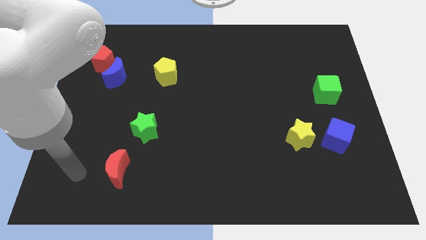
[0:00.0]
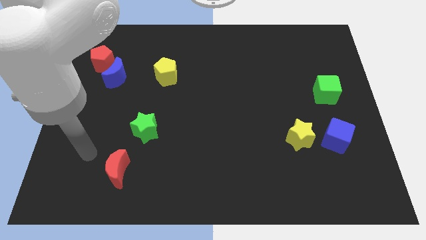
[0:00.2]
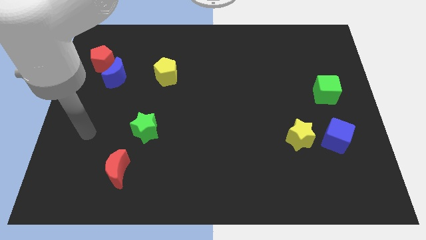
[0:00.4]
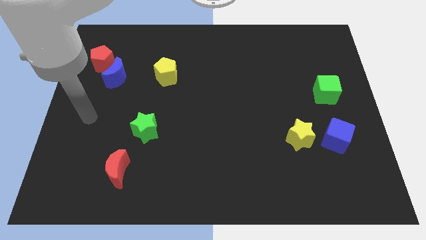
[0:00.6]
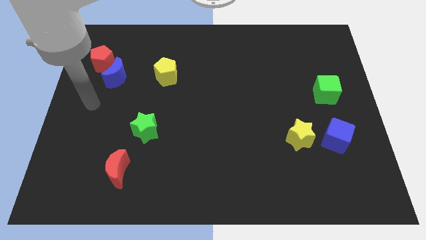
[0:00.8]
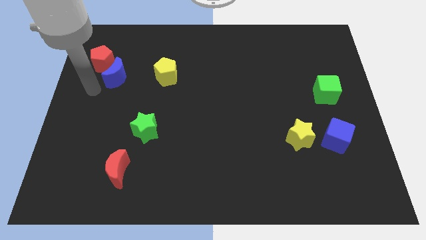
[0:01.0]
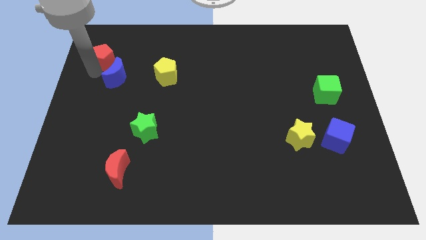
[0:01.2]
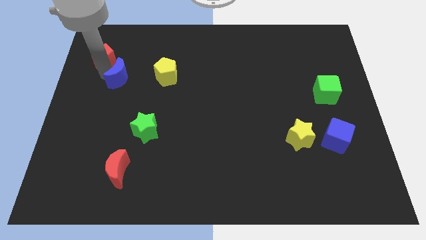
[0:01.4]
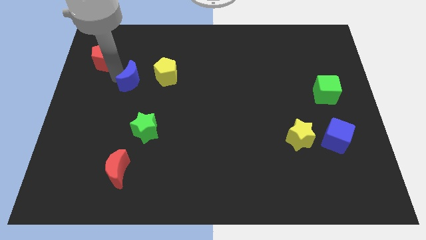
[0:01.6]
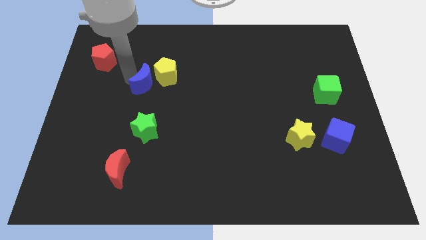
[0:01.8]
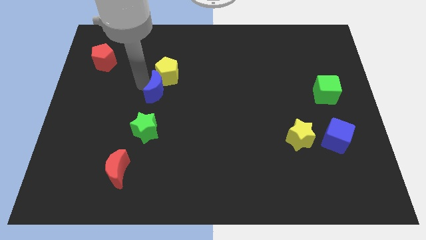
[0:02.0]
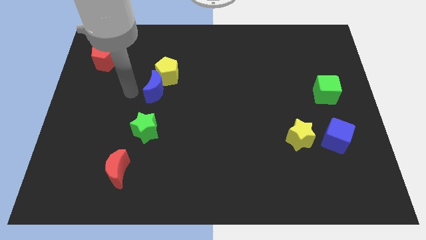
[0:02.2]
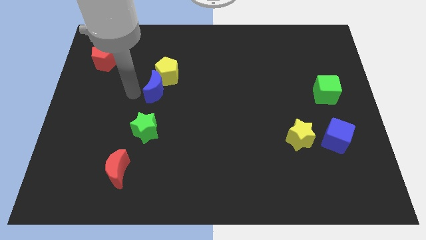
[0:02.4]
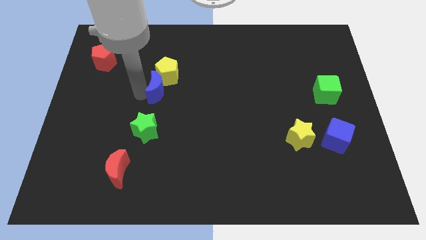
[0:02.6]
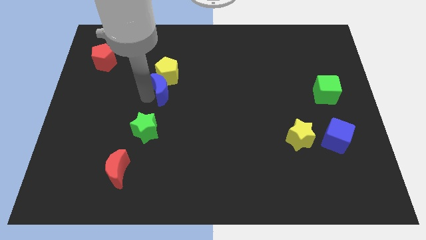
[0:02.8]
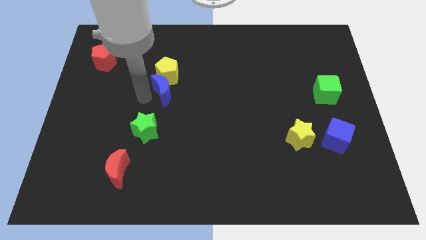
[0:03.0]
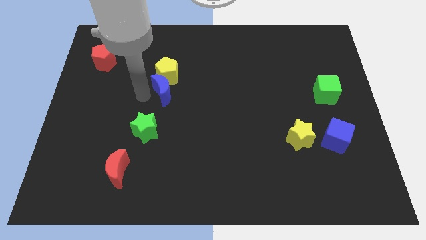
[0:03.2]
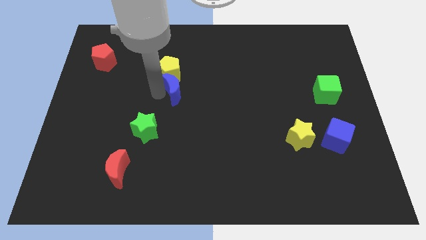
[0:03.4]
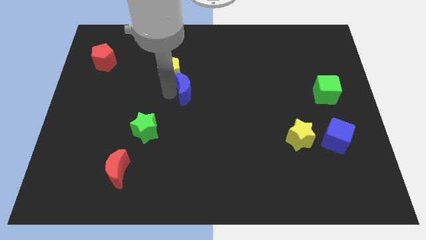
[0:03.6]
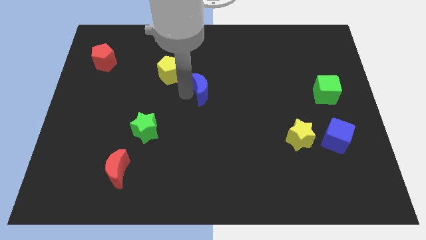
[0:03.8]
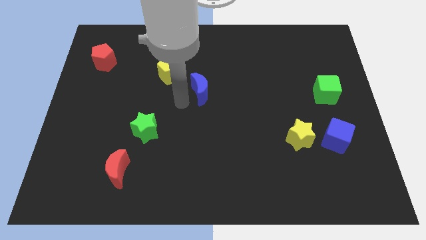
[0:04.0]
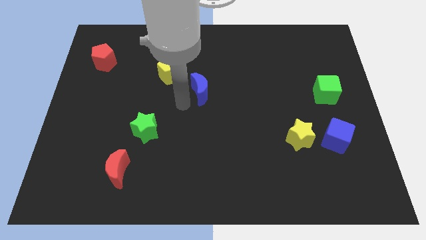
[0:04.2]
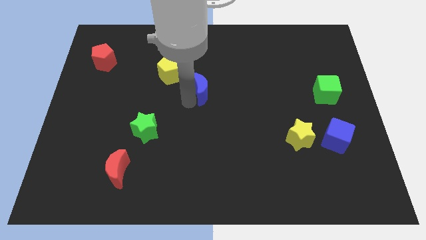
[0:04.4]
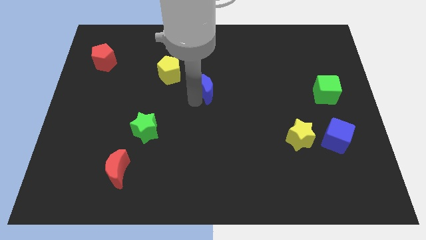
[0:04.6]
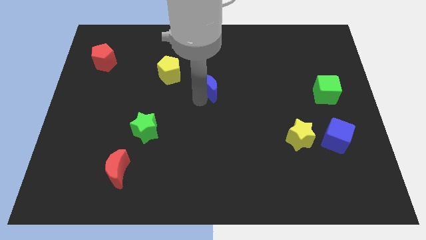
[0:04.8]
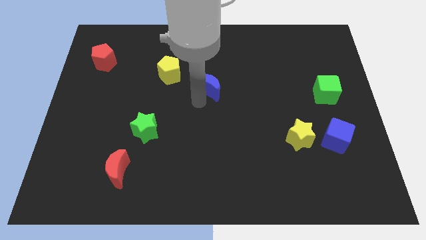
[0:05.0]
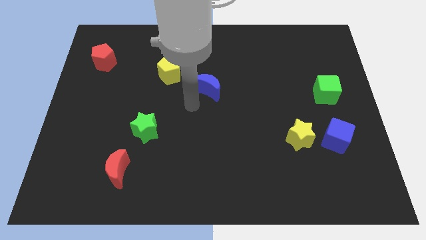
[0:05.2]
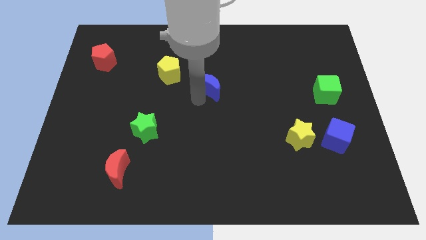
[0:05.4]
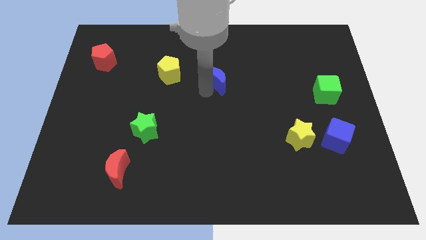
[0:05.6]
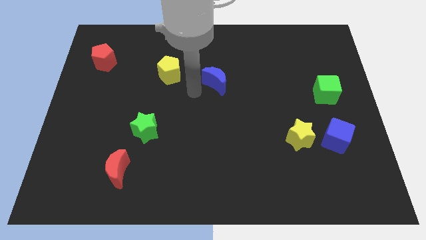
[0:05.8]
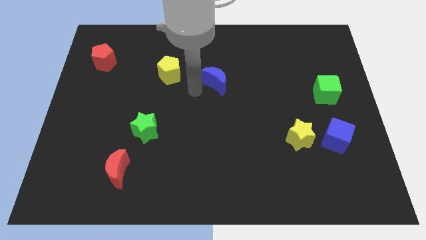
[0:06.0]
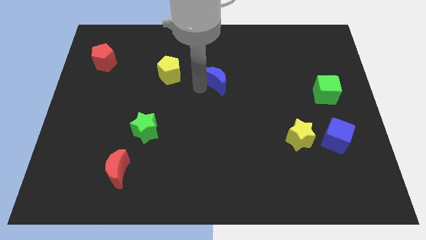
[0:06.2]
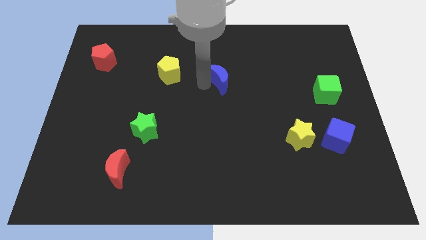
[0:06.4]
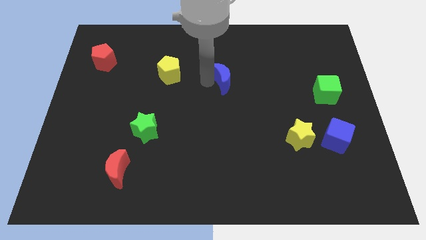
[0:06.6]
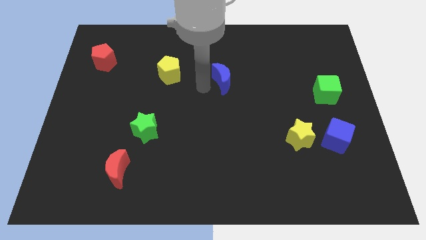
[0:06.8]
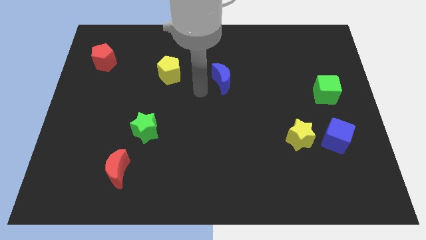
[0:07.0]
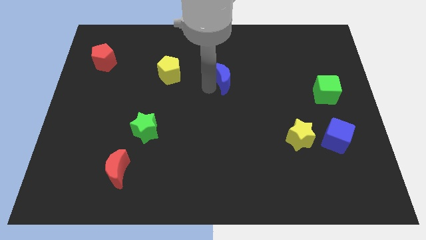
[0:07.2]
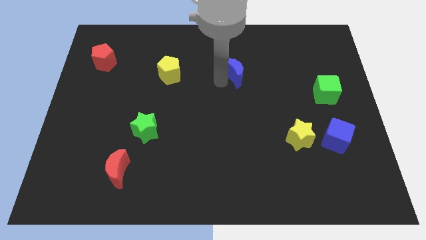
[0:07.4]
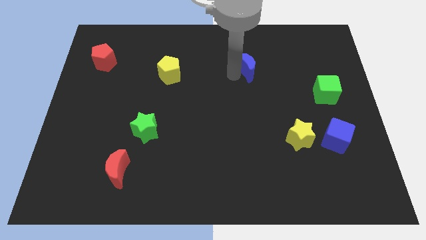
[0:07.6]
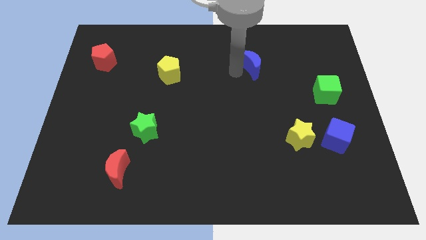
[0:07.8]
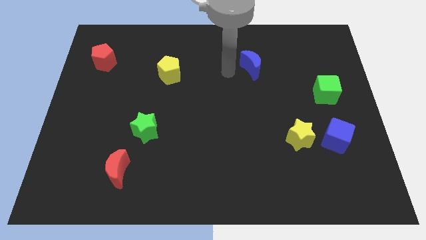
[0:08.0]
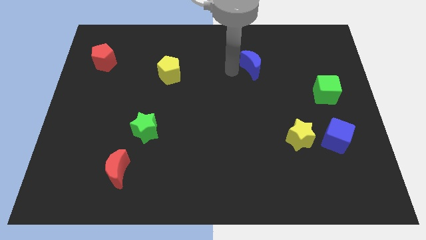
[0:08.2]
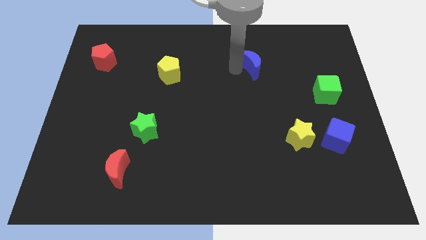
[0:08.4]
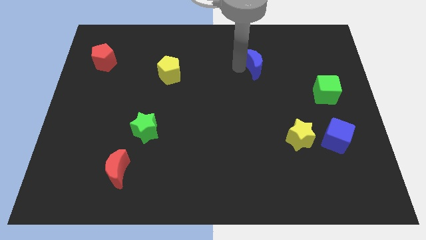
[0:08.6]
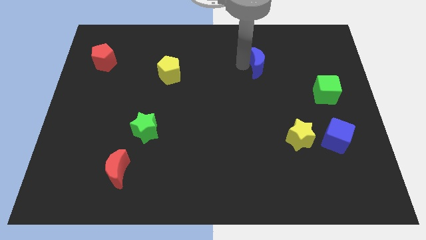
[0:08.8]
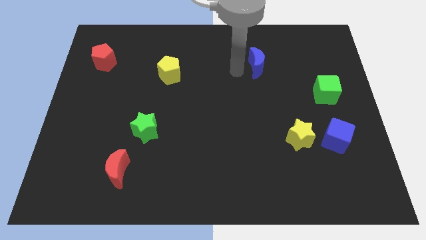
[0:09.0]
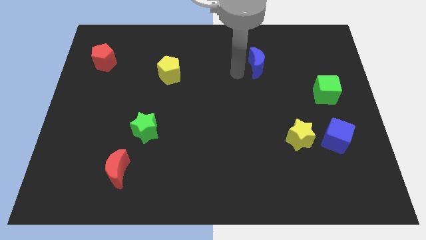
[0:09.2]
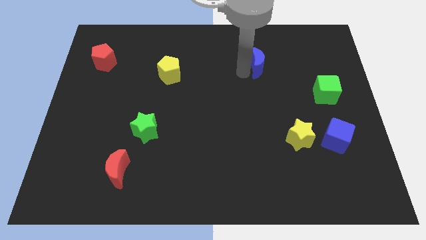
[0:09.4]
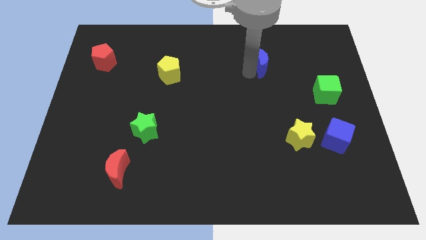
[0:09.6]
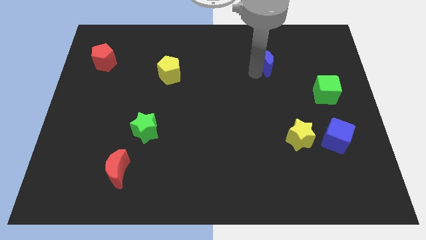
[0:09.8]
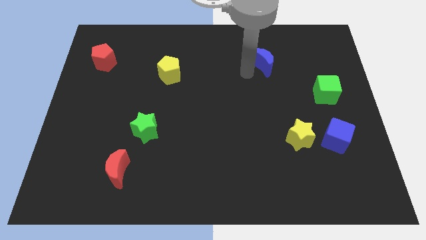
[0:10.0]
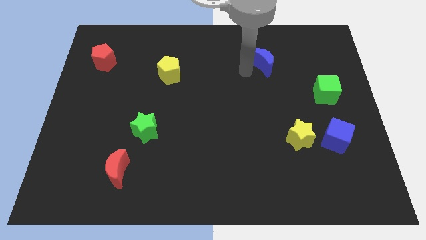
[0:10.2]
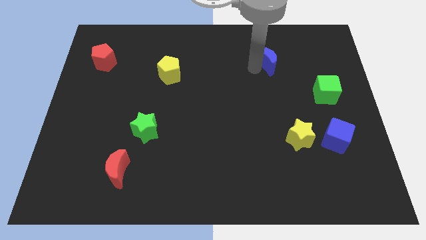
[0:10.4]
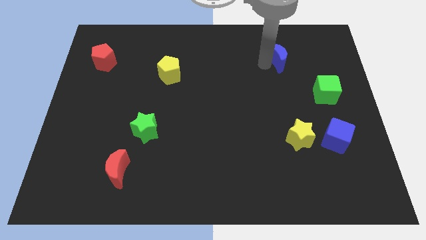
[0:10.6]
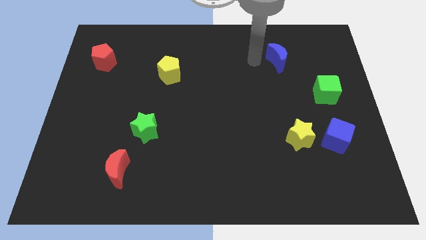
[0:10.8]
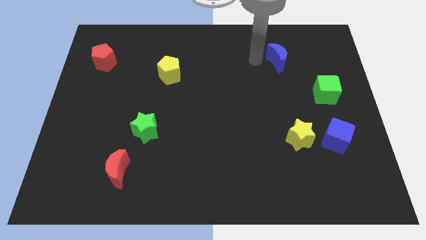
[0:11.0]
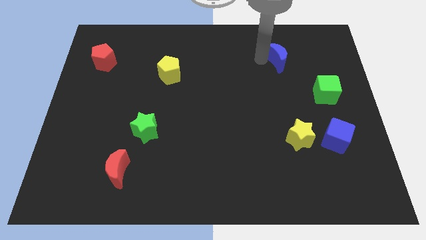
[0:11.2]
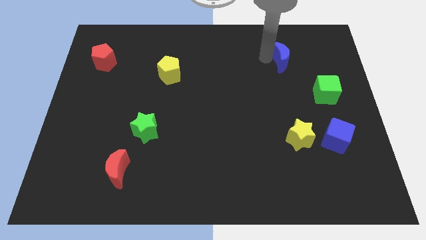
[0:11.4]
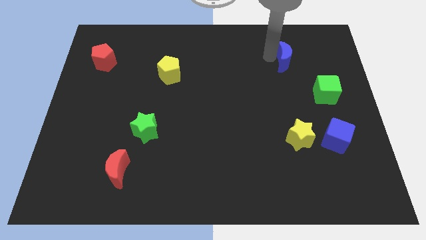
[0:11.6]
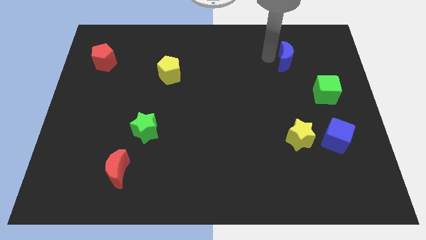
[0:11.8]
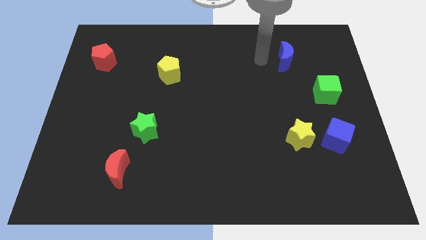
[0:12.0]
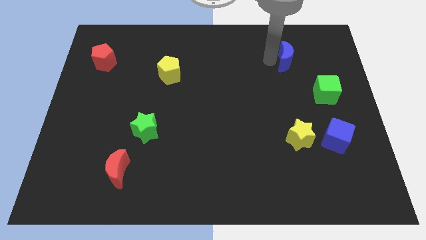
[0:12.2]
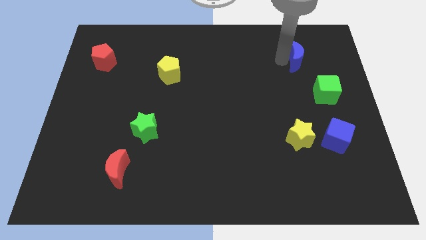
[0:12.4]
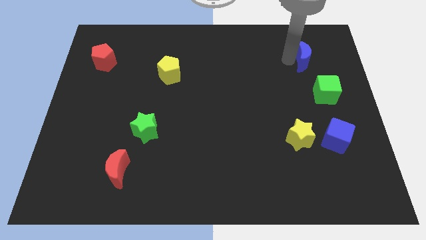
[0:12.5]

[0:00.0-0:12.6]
push the blue moon above the green cube
